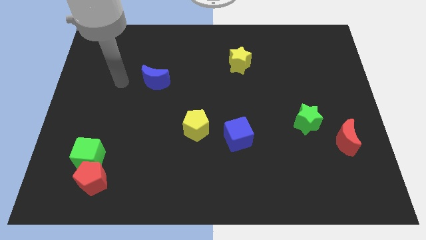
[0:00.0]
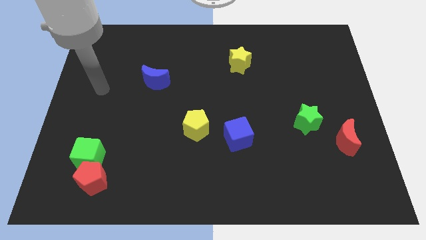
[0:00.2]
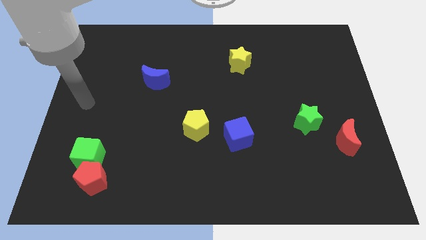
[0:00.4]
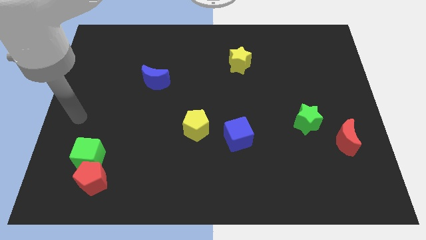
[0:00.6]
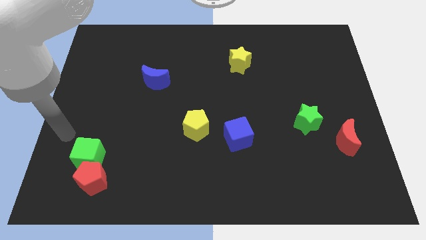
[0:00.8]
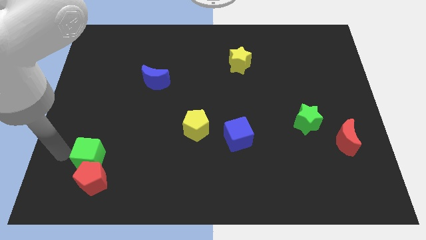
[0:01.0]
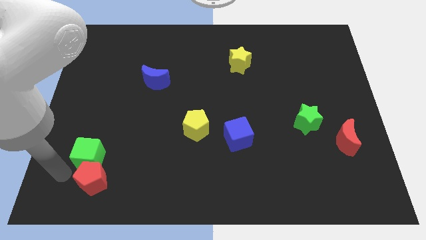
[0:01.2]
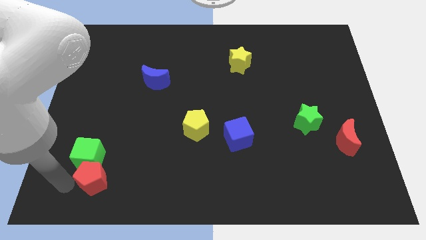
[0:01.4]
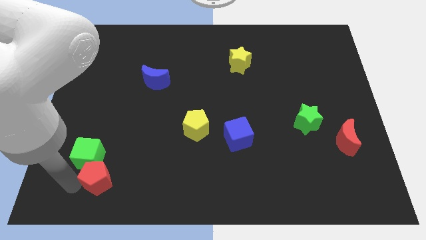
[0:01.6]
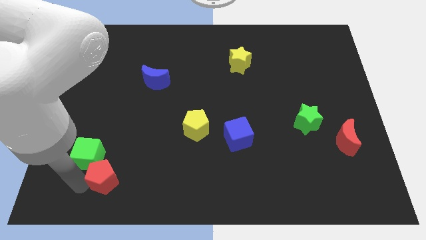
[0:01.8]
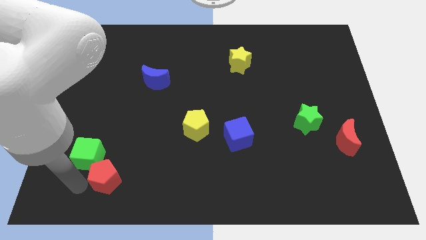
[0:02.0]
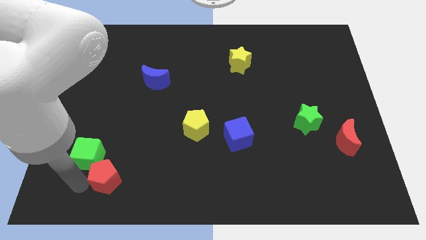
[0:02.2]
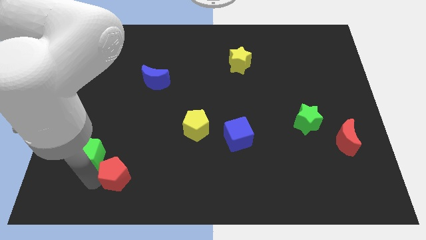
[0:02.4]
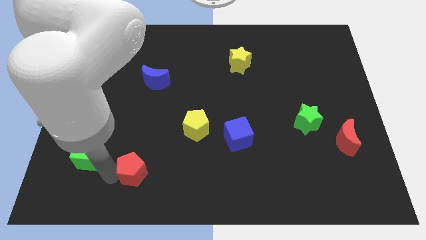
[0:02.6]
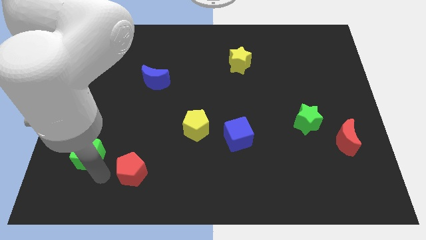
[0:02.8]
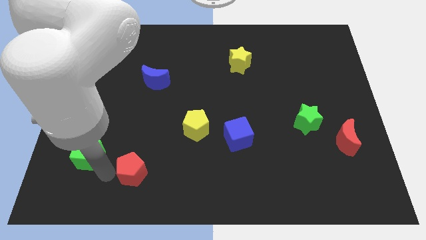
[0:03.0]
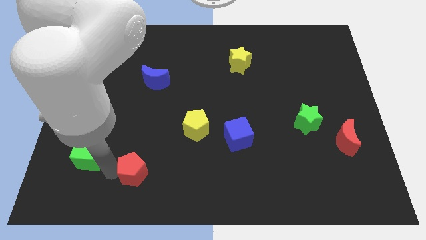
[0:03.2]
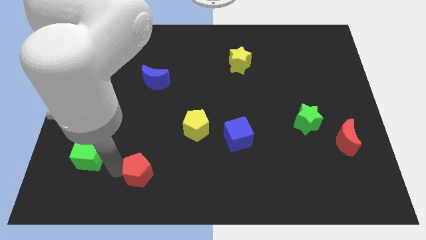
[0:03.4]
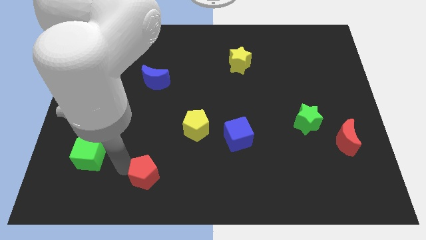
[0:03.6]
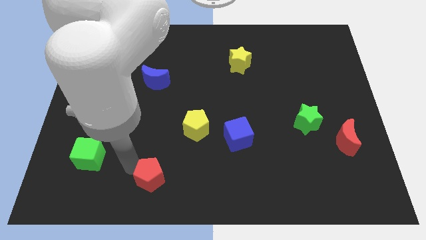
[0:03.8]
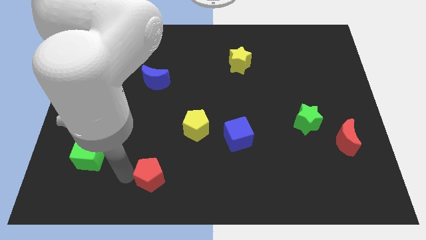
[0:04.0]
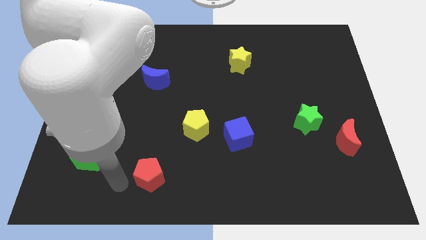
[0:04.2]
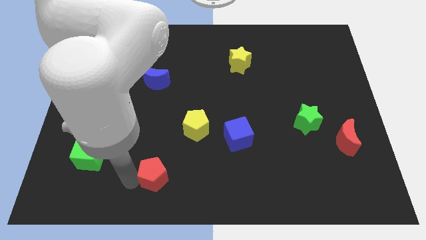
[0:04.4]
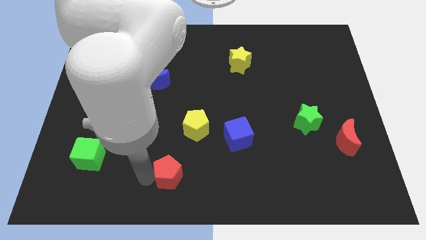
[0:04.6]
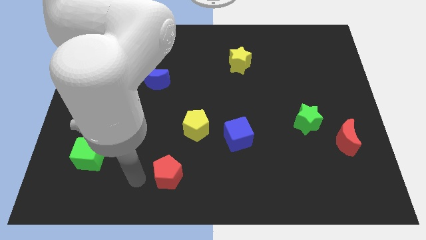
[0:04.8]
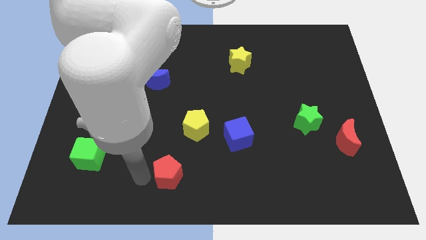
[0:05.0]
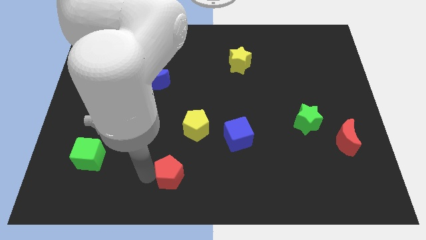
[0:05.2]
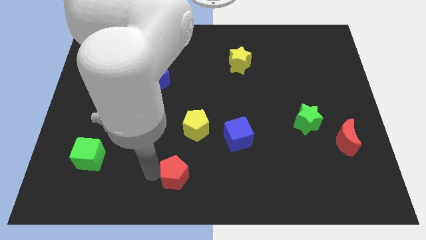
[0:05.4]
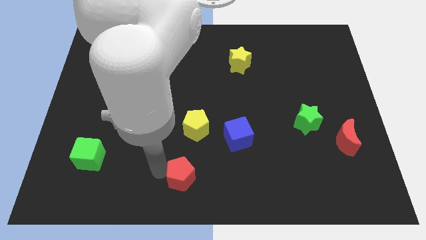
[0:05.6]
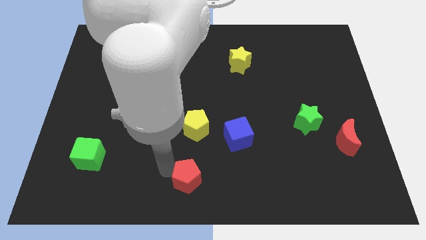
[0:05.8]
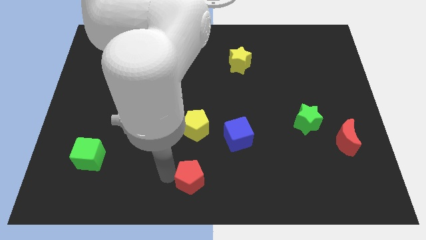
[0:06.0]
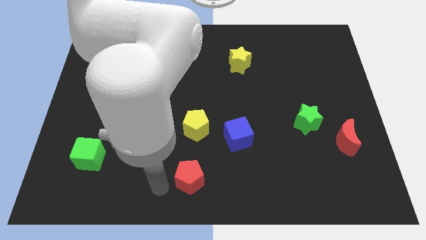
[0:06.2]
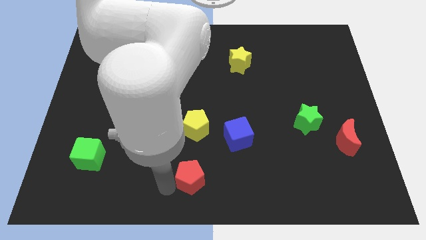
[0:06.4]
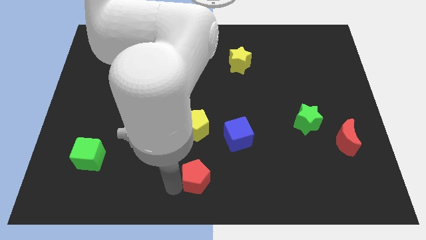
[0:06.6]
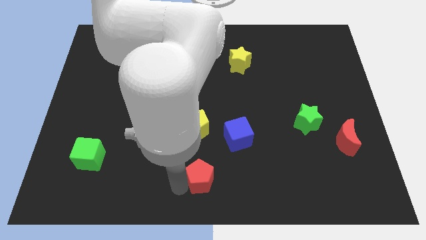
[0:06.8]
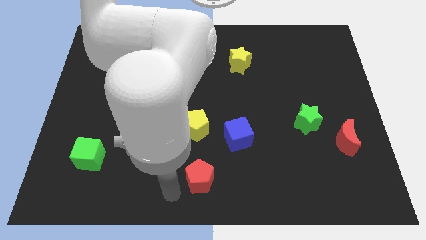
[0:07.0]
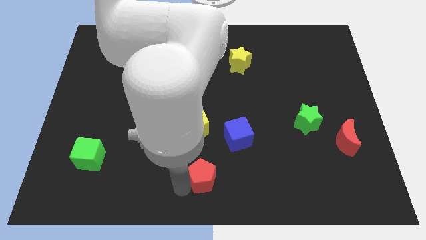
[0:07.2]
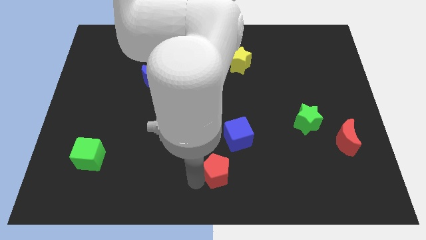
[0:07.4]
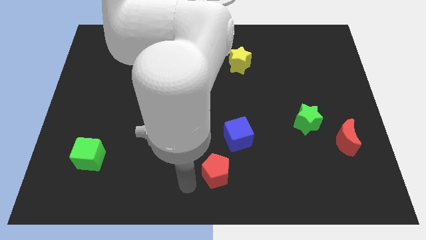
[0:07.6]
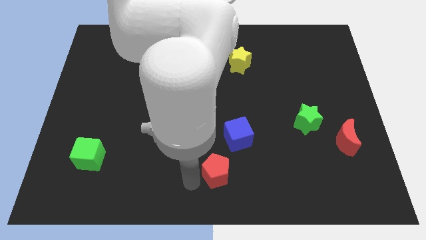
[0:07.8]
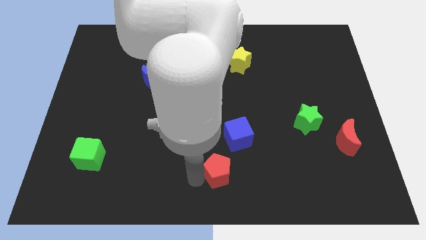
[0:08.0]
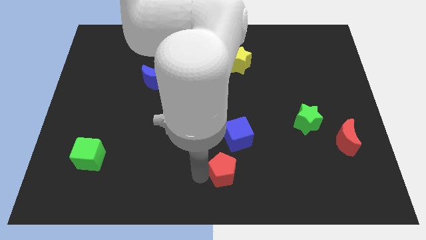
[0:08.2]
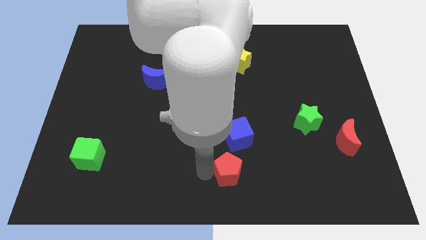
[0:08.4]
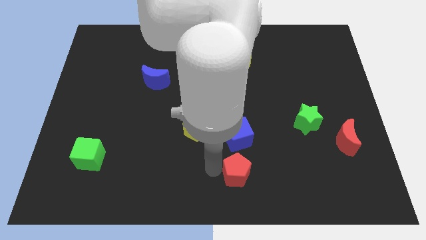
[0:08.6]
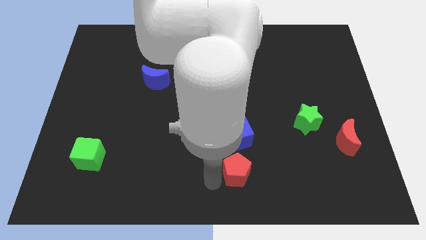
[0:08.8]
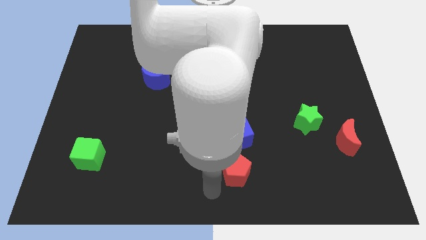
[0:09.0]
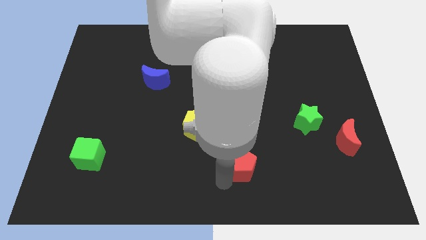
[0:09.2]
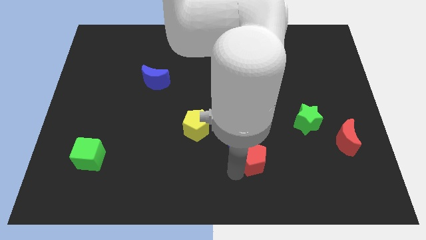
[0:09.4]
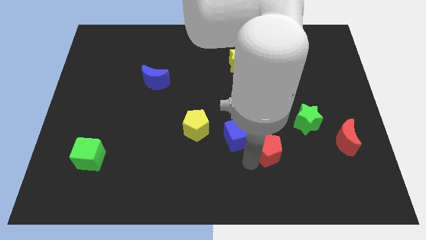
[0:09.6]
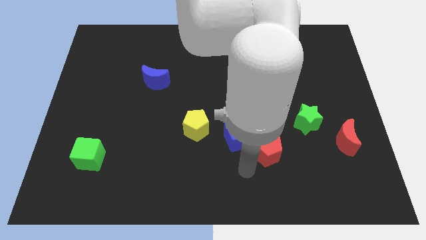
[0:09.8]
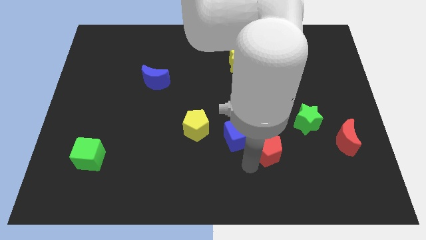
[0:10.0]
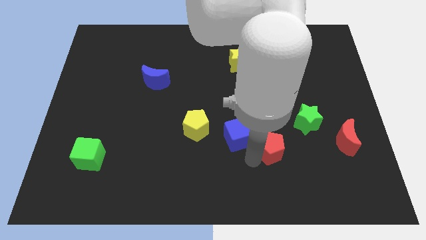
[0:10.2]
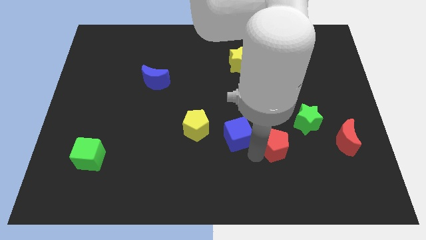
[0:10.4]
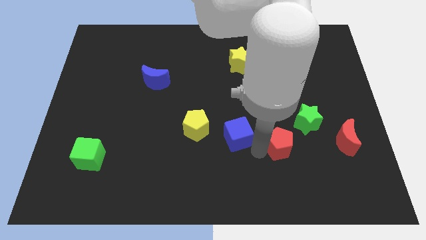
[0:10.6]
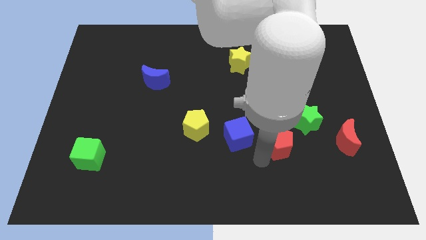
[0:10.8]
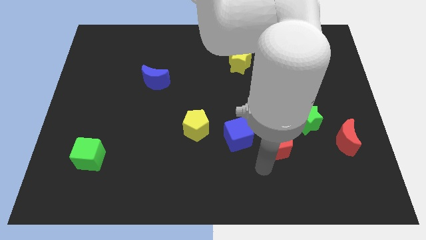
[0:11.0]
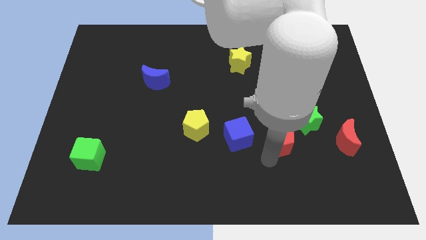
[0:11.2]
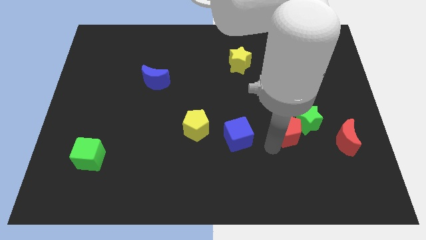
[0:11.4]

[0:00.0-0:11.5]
put the red pentagon towards the green star
